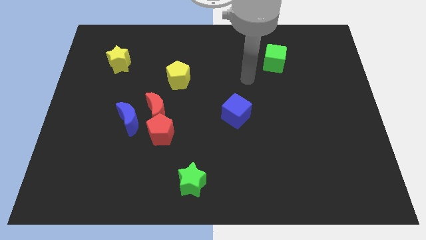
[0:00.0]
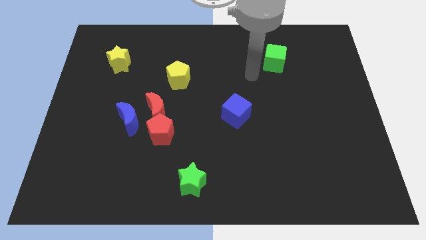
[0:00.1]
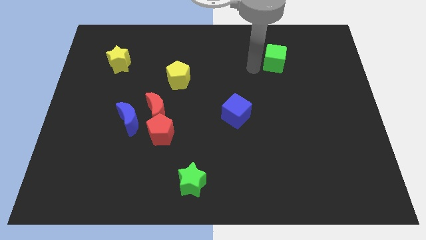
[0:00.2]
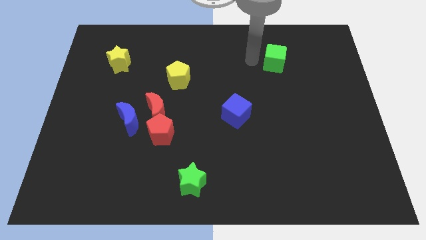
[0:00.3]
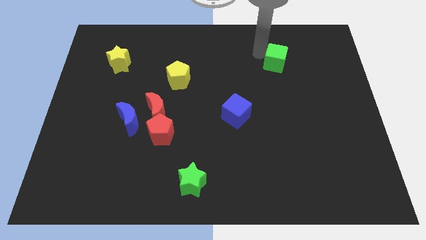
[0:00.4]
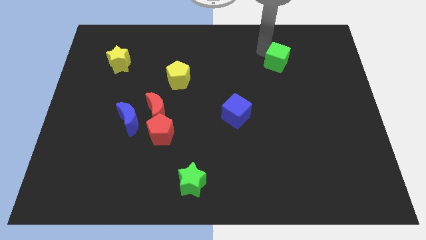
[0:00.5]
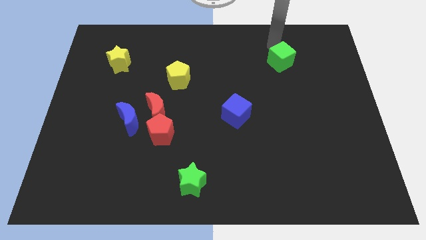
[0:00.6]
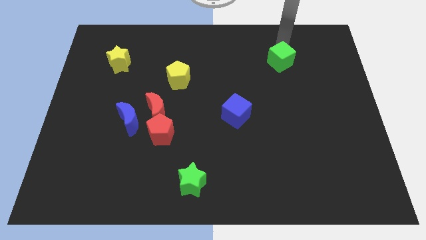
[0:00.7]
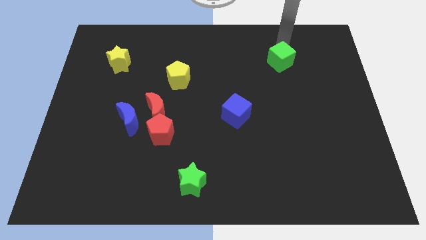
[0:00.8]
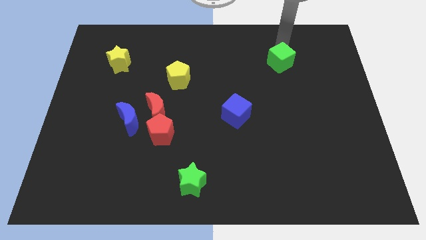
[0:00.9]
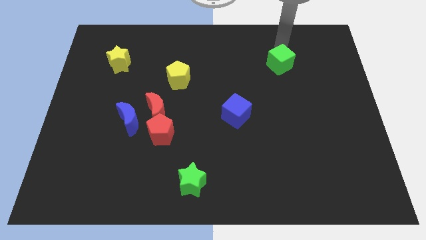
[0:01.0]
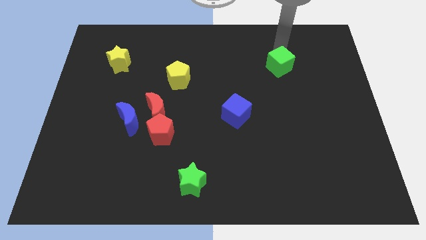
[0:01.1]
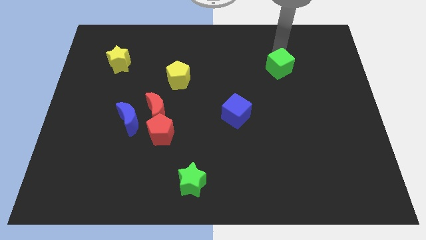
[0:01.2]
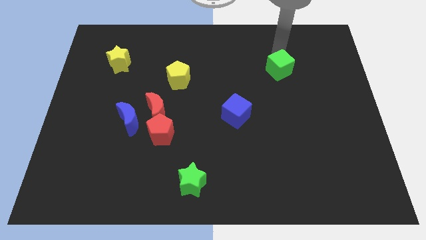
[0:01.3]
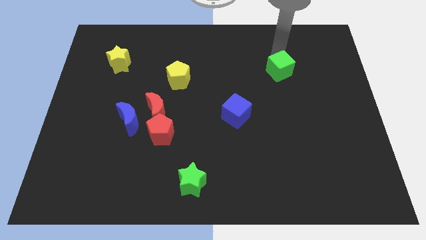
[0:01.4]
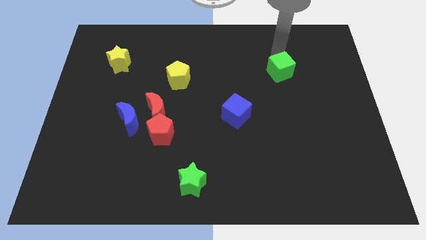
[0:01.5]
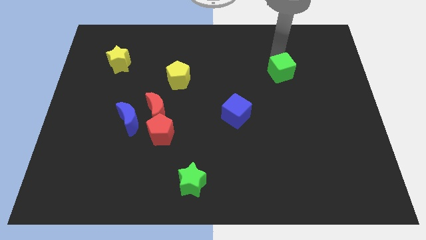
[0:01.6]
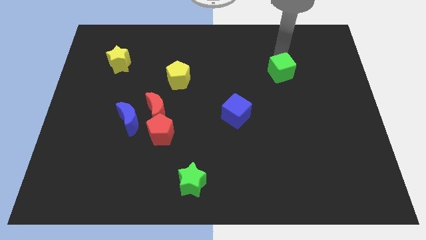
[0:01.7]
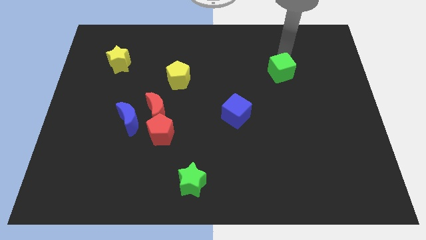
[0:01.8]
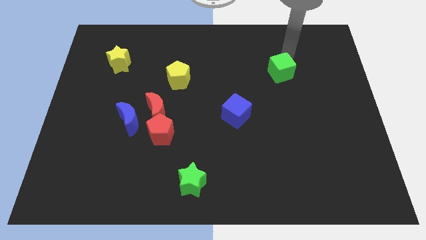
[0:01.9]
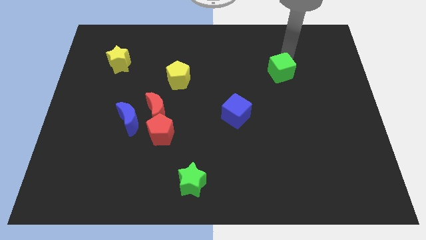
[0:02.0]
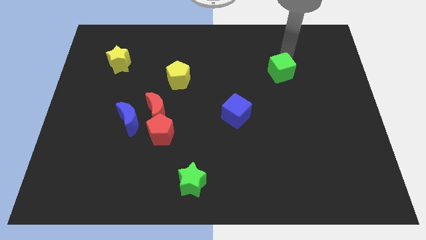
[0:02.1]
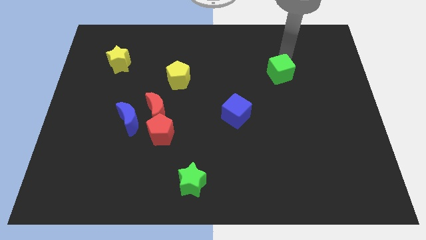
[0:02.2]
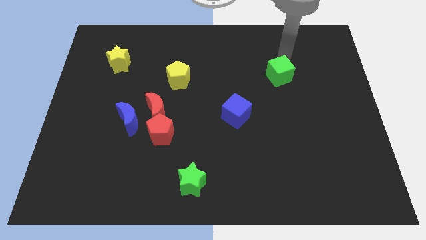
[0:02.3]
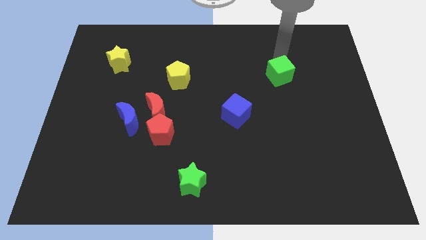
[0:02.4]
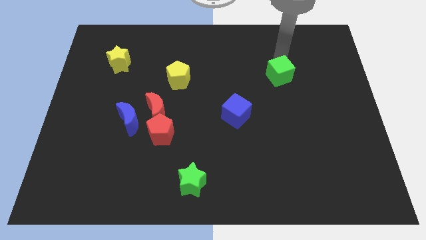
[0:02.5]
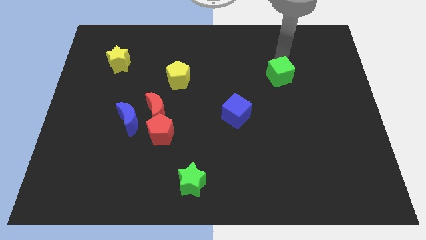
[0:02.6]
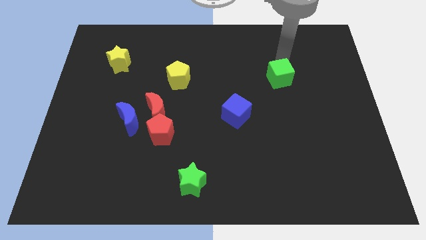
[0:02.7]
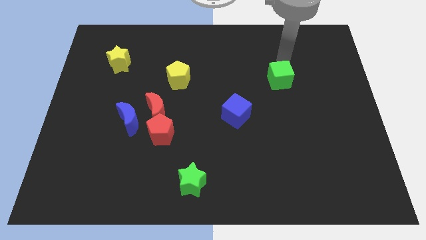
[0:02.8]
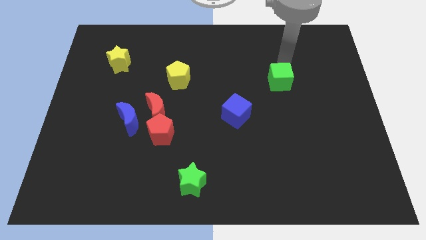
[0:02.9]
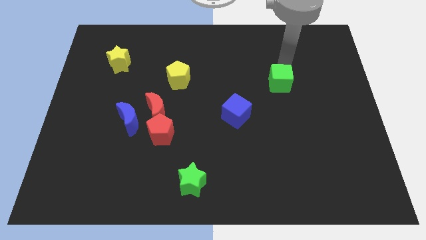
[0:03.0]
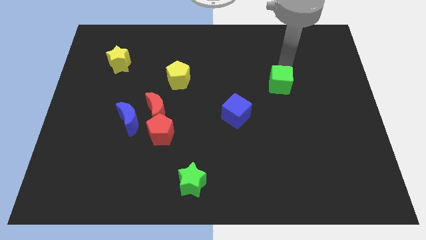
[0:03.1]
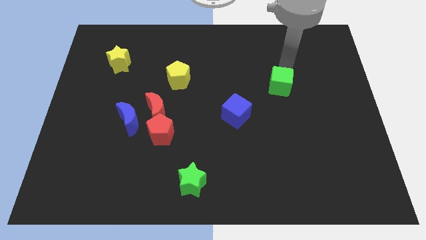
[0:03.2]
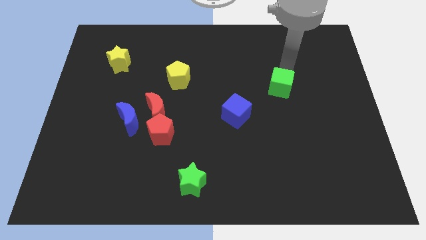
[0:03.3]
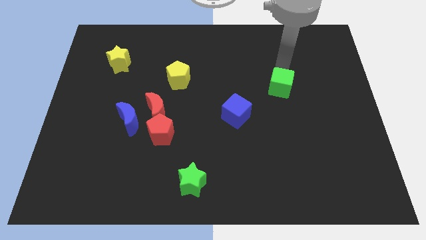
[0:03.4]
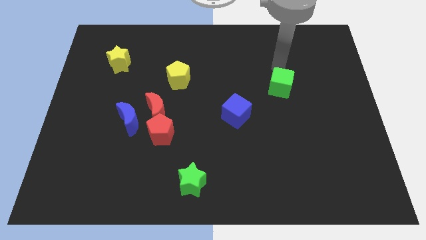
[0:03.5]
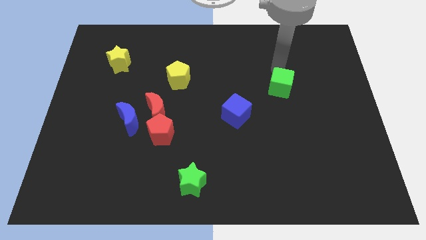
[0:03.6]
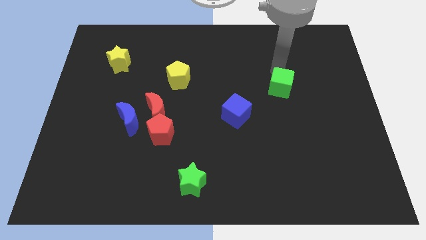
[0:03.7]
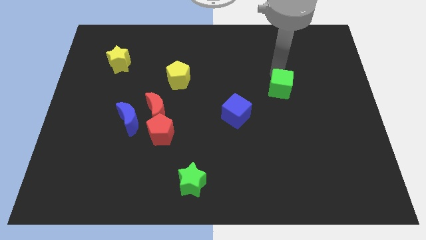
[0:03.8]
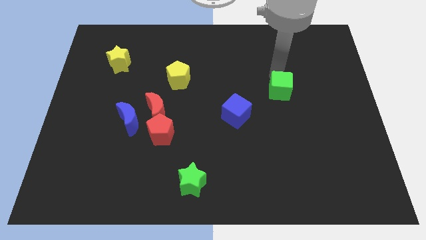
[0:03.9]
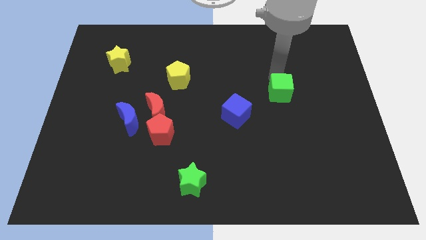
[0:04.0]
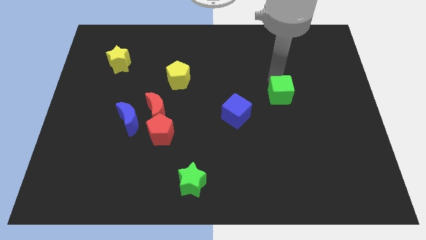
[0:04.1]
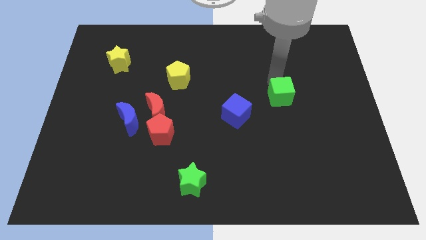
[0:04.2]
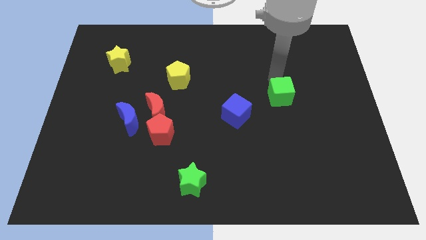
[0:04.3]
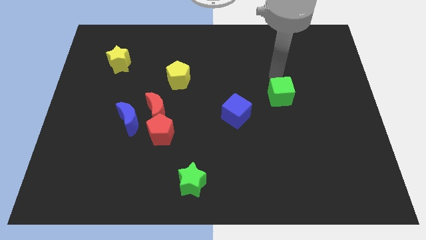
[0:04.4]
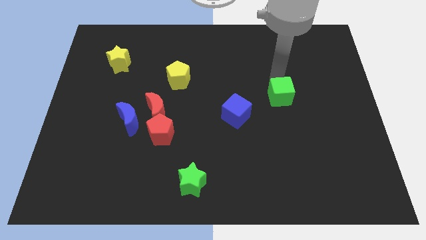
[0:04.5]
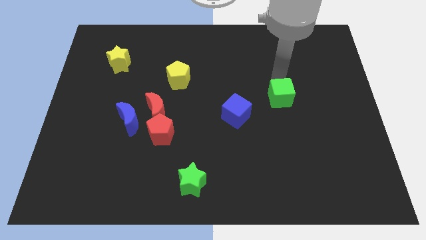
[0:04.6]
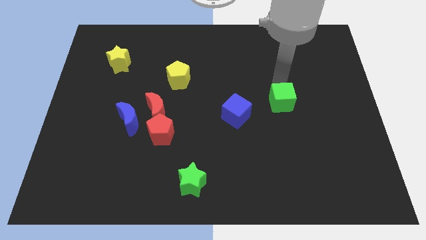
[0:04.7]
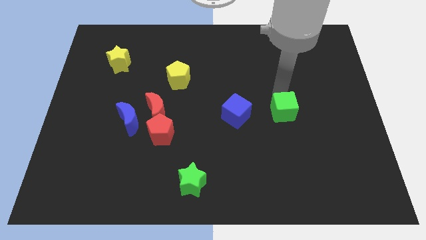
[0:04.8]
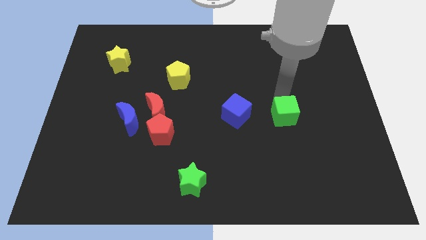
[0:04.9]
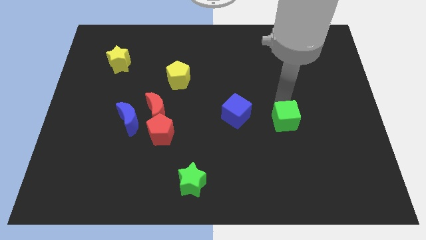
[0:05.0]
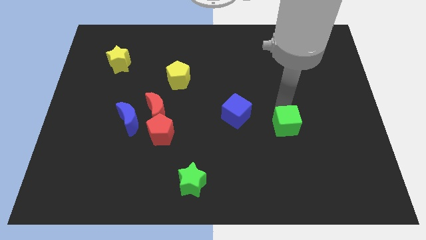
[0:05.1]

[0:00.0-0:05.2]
slide the green cube downwards

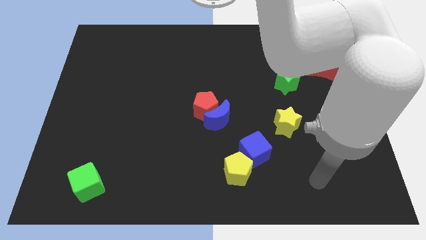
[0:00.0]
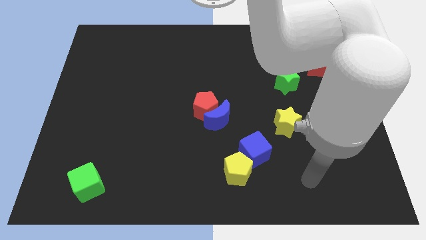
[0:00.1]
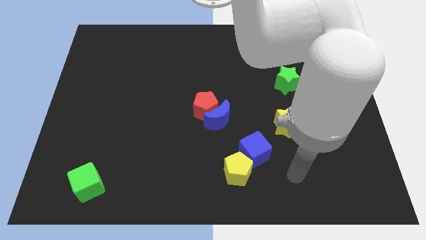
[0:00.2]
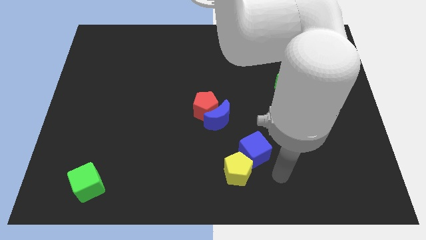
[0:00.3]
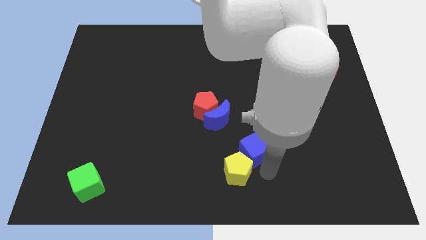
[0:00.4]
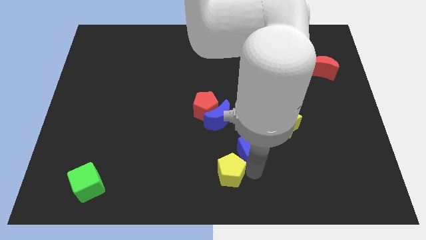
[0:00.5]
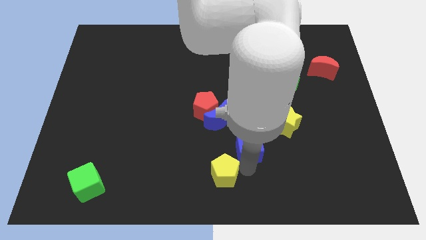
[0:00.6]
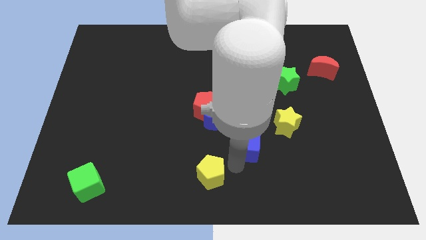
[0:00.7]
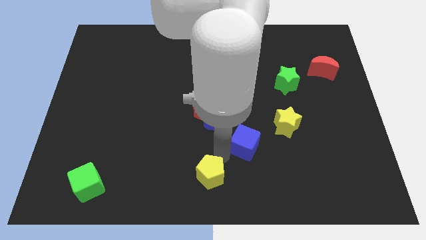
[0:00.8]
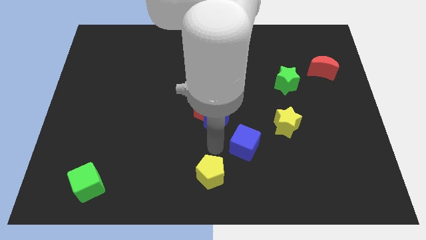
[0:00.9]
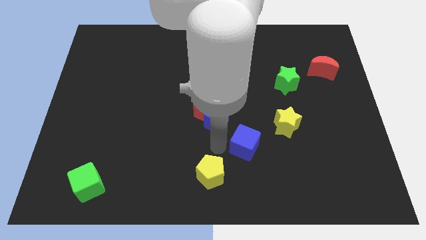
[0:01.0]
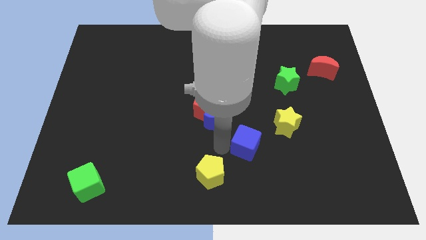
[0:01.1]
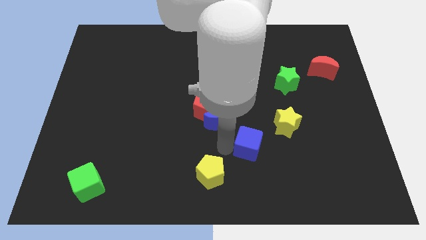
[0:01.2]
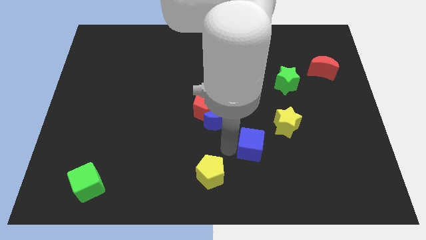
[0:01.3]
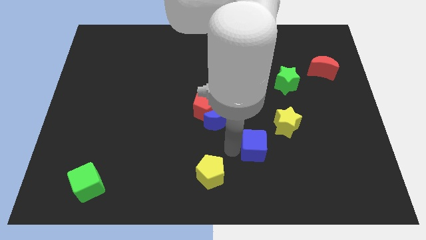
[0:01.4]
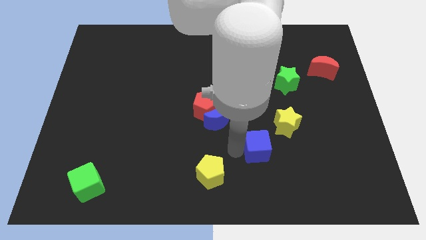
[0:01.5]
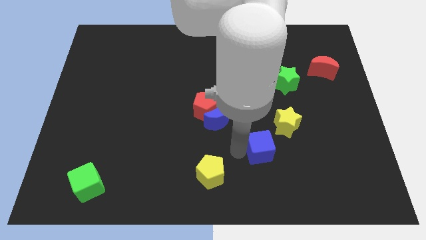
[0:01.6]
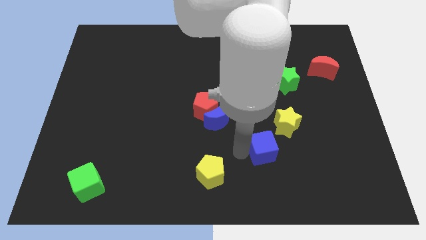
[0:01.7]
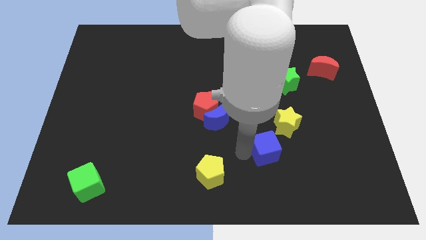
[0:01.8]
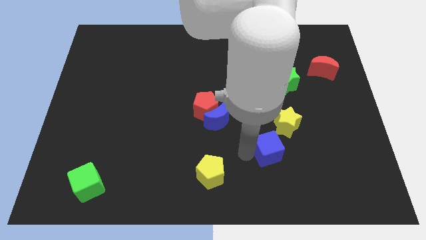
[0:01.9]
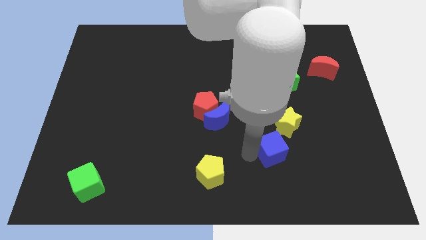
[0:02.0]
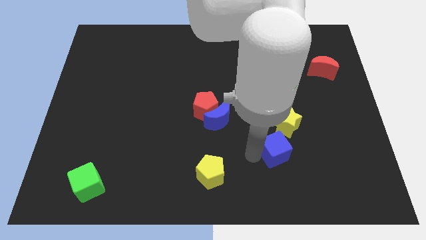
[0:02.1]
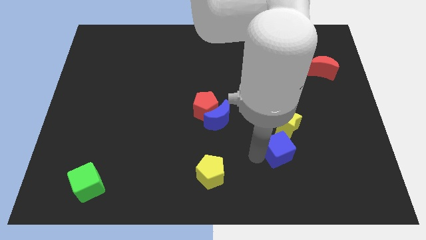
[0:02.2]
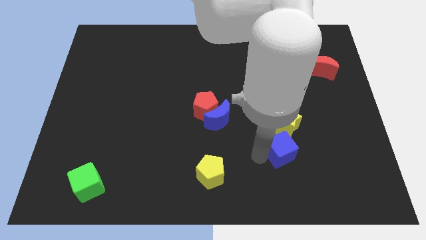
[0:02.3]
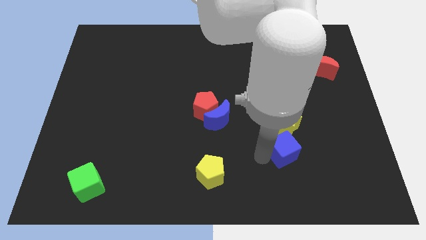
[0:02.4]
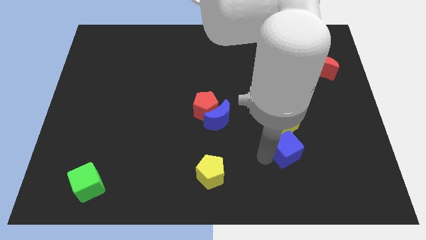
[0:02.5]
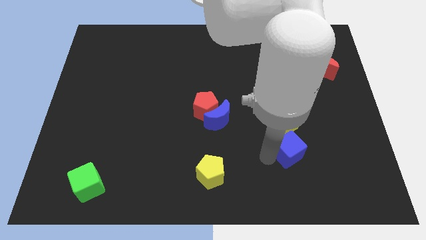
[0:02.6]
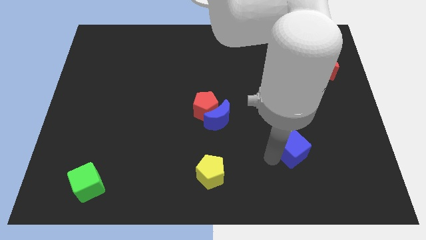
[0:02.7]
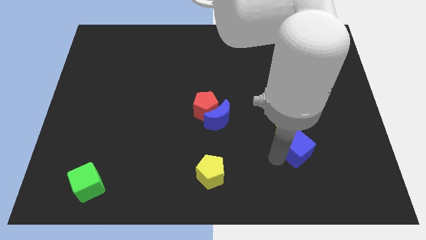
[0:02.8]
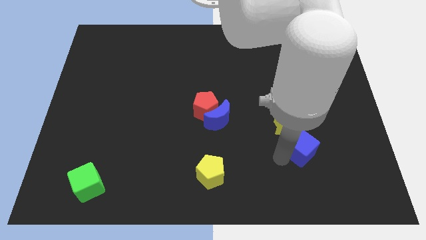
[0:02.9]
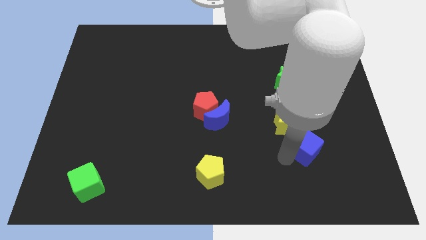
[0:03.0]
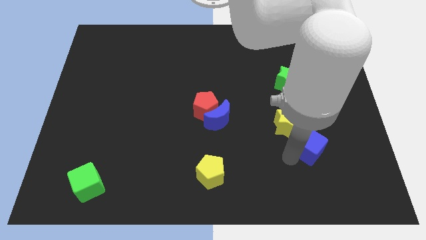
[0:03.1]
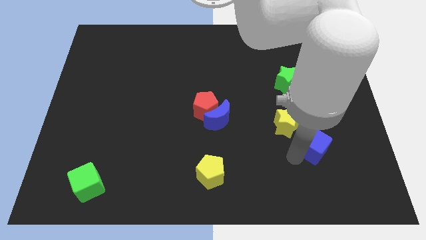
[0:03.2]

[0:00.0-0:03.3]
push the blue cube upwards and to the right diagonally a bit
